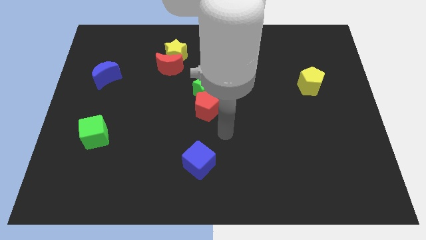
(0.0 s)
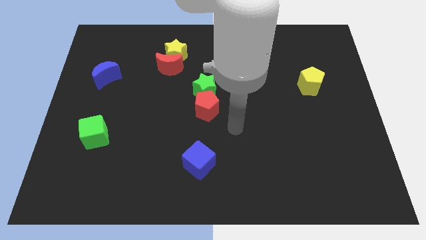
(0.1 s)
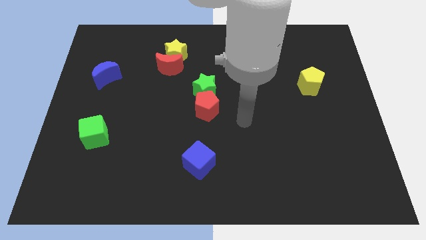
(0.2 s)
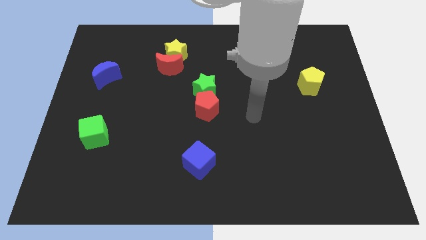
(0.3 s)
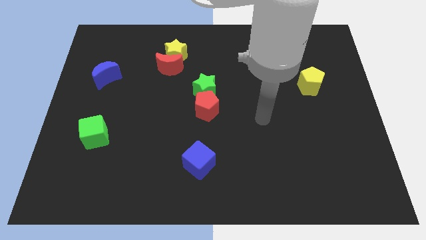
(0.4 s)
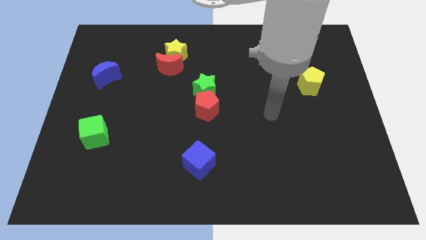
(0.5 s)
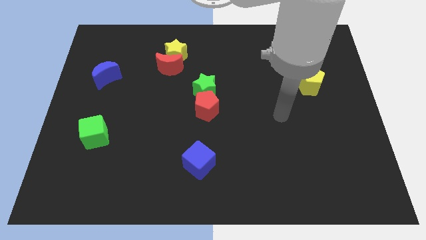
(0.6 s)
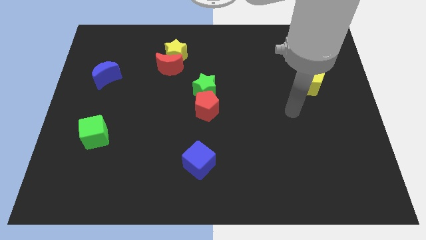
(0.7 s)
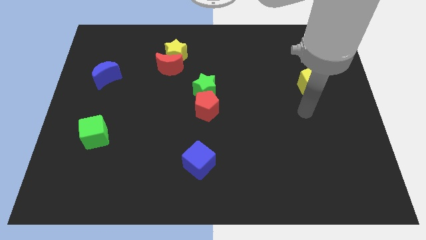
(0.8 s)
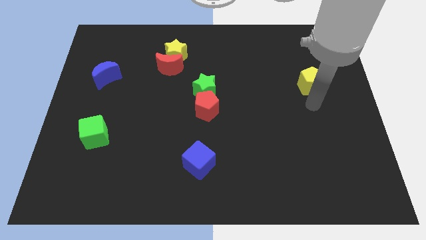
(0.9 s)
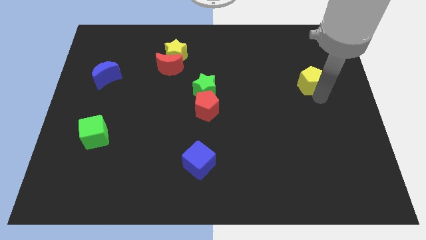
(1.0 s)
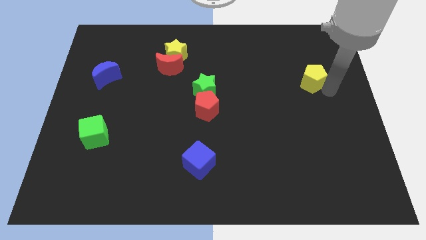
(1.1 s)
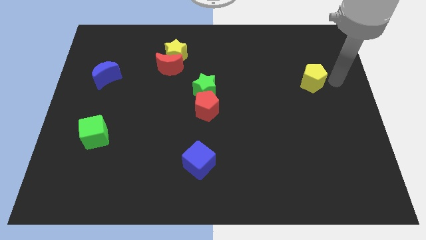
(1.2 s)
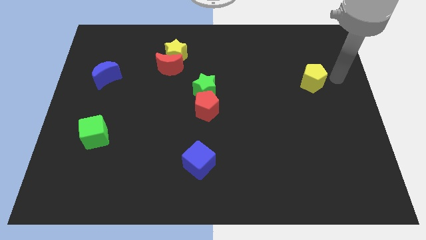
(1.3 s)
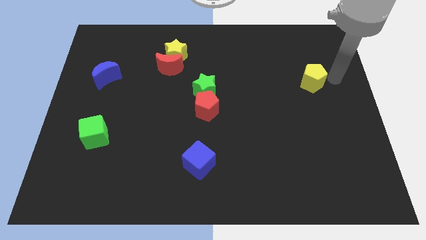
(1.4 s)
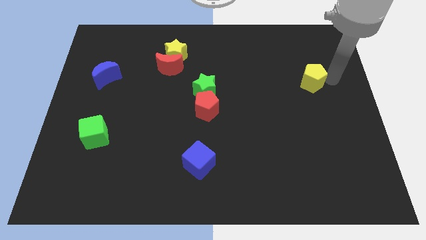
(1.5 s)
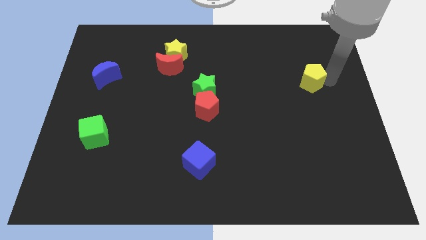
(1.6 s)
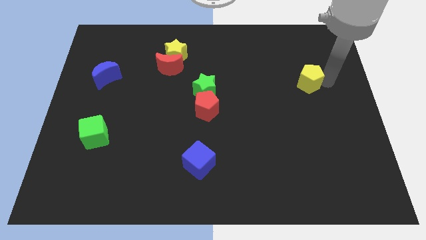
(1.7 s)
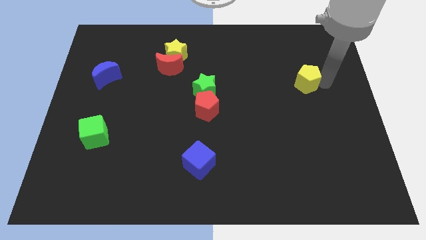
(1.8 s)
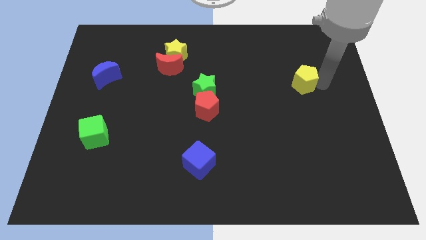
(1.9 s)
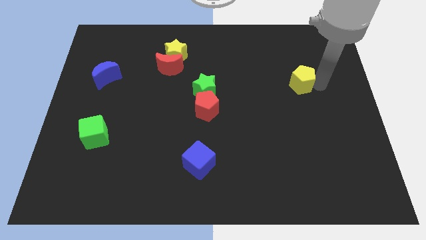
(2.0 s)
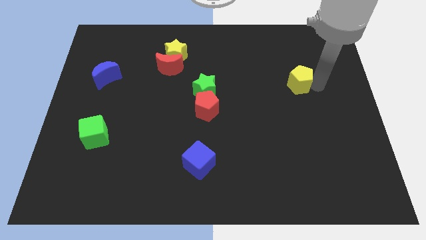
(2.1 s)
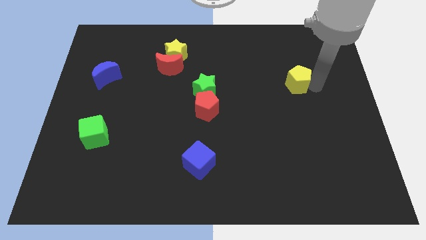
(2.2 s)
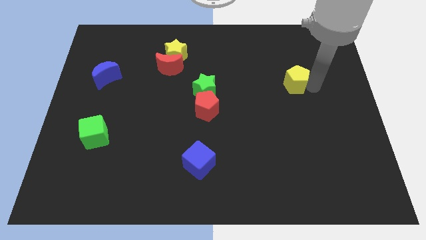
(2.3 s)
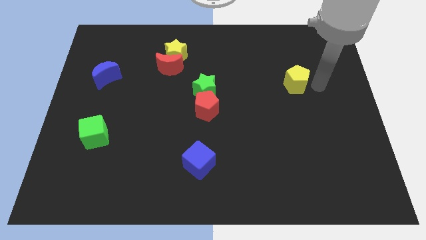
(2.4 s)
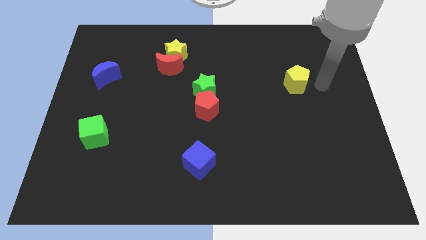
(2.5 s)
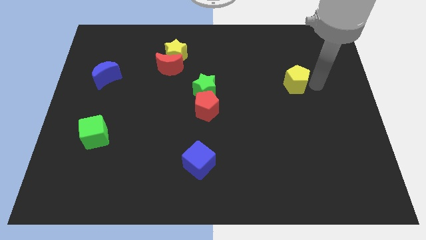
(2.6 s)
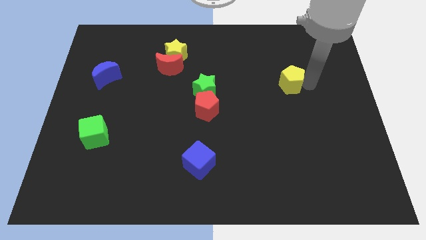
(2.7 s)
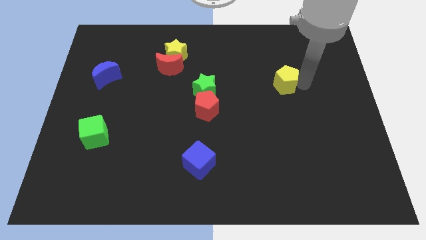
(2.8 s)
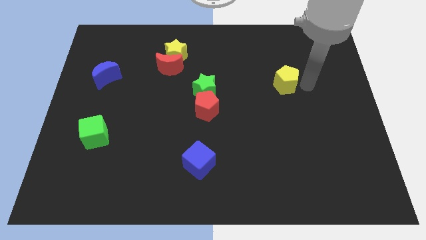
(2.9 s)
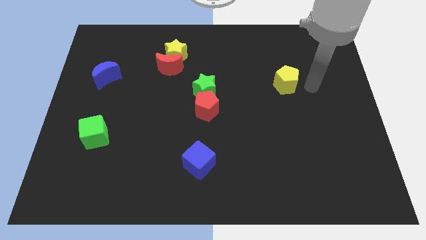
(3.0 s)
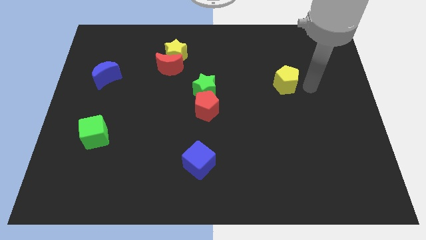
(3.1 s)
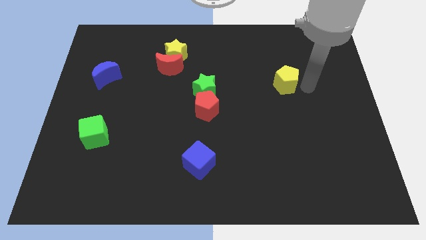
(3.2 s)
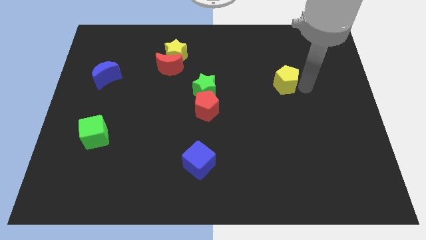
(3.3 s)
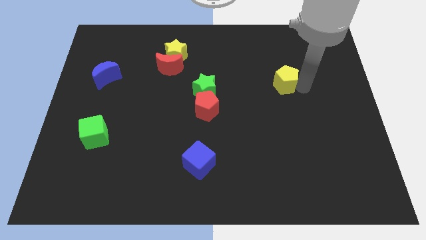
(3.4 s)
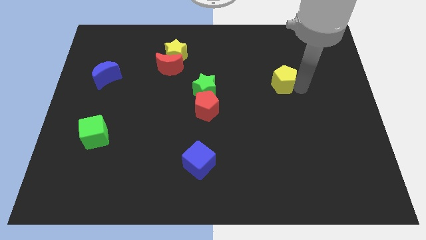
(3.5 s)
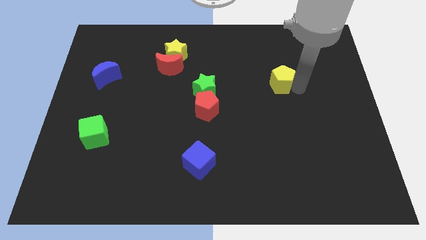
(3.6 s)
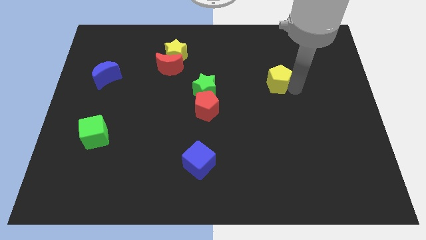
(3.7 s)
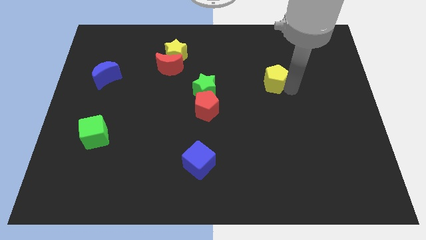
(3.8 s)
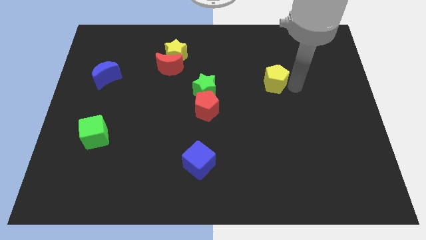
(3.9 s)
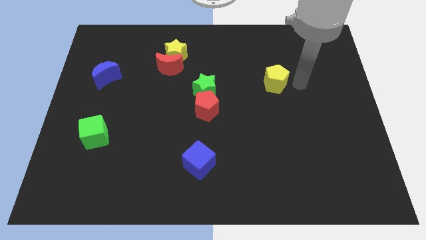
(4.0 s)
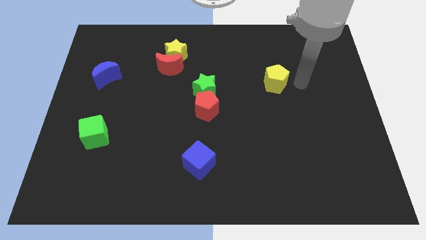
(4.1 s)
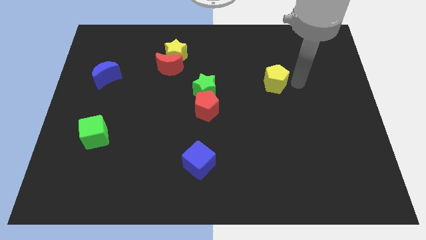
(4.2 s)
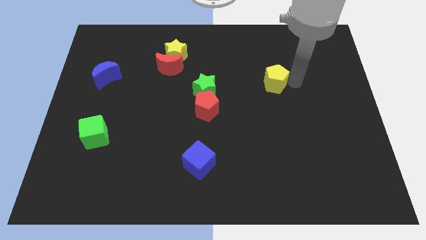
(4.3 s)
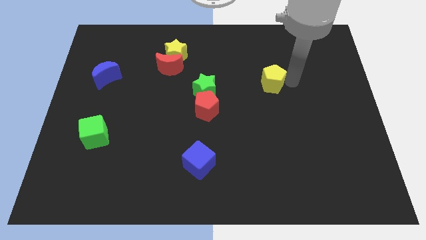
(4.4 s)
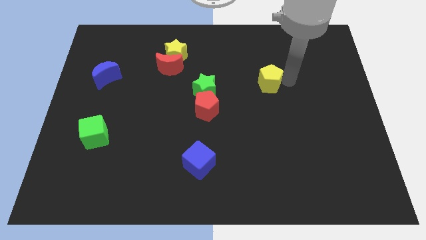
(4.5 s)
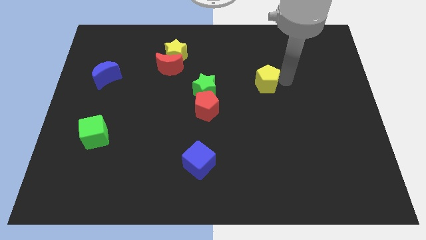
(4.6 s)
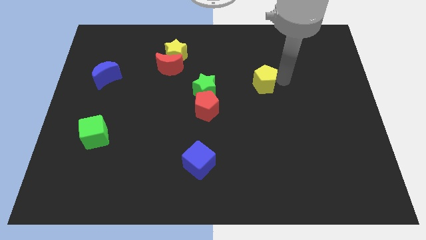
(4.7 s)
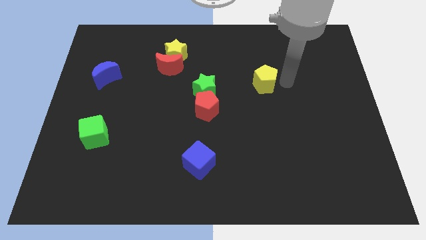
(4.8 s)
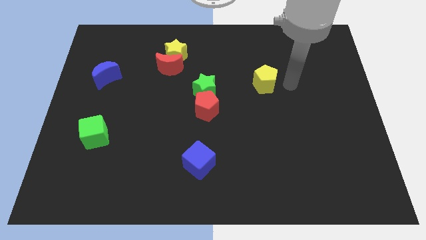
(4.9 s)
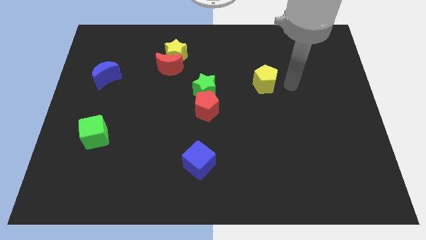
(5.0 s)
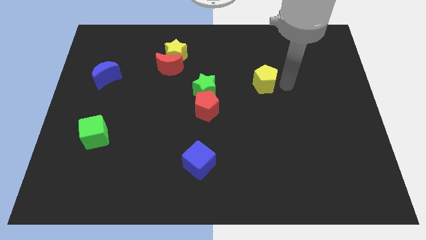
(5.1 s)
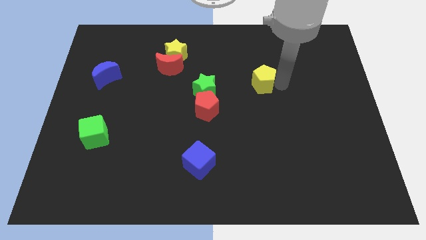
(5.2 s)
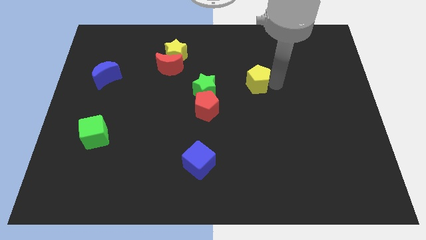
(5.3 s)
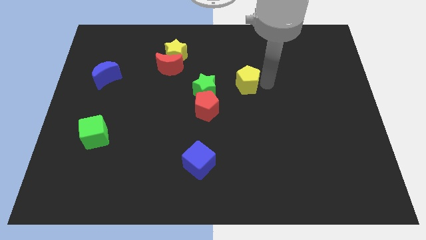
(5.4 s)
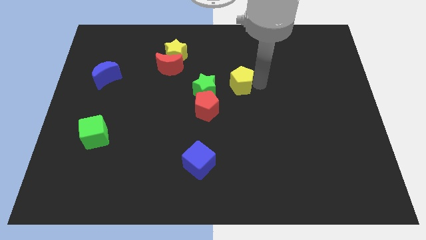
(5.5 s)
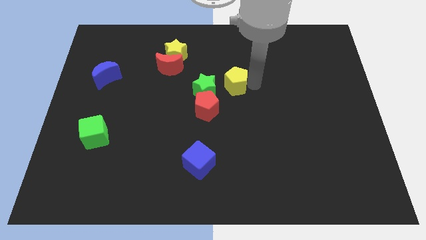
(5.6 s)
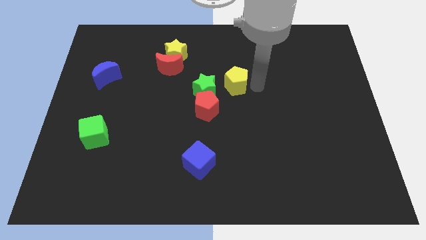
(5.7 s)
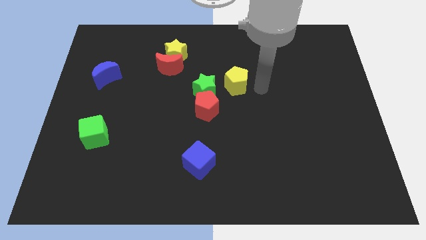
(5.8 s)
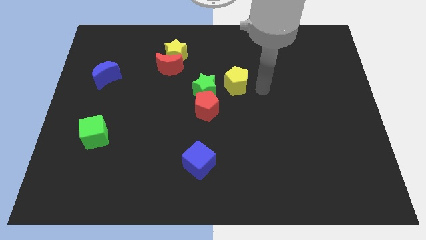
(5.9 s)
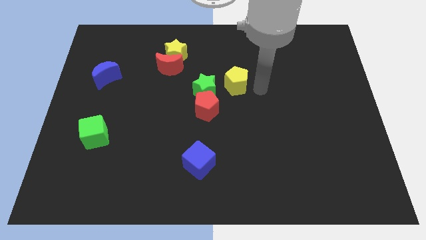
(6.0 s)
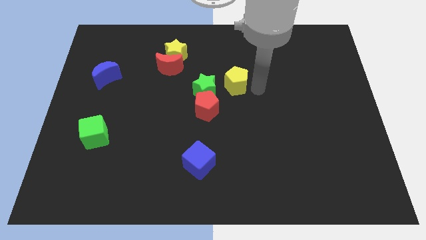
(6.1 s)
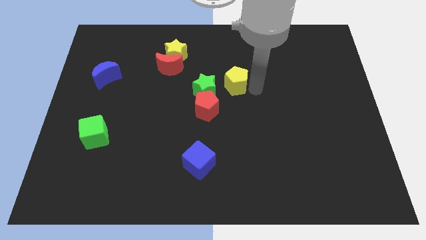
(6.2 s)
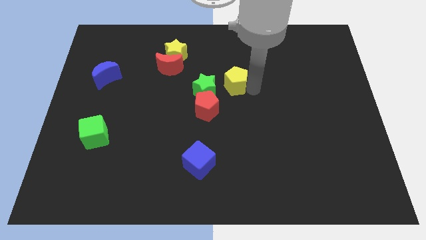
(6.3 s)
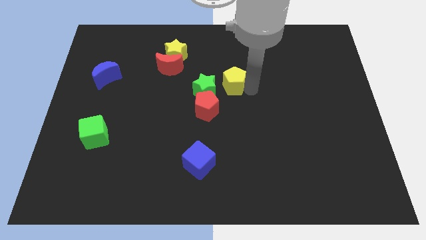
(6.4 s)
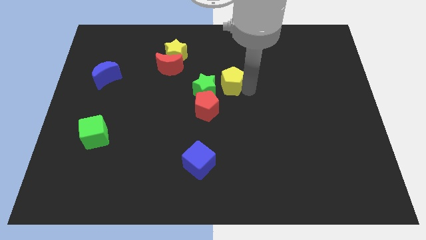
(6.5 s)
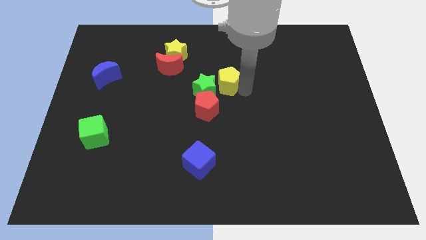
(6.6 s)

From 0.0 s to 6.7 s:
push the yellow pentagon to the left

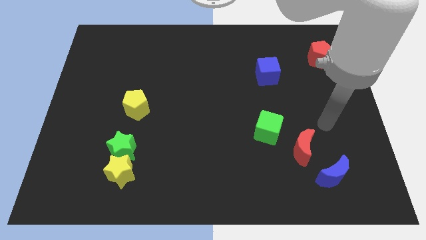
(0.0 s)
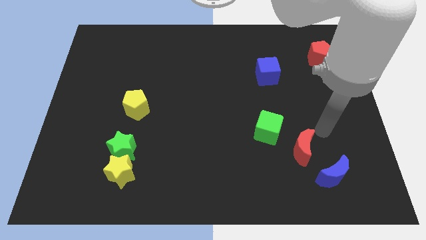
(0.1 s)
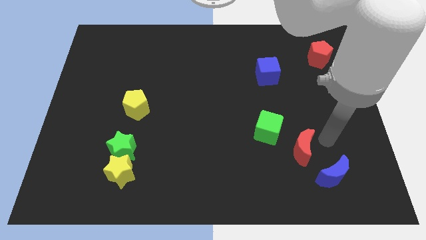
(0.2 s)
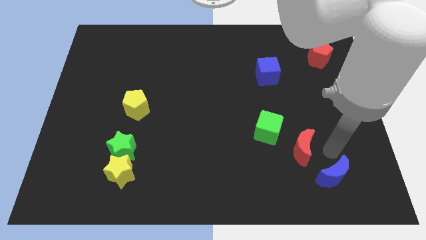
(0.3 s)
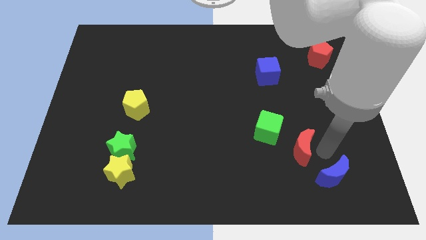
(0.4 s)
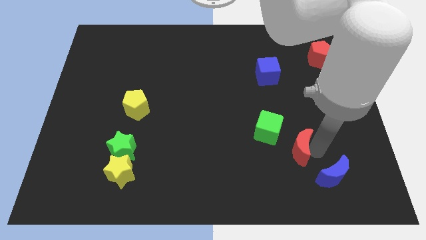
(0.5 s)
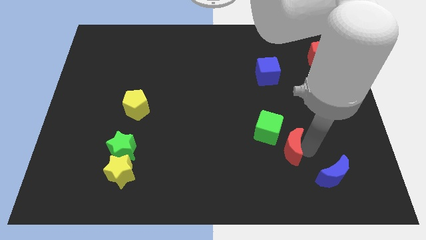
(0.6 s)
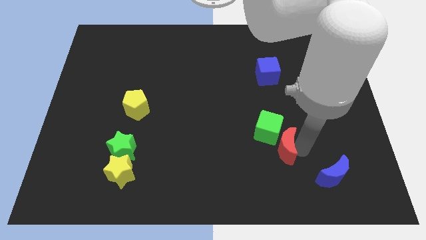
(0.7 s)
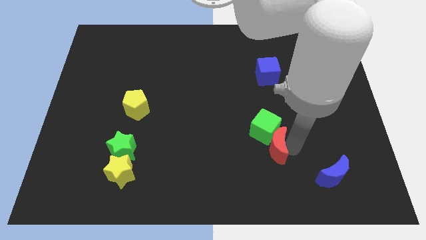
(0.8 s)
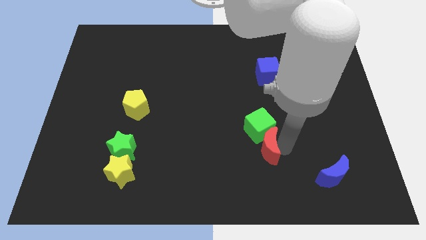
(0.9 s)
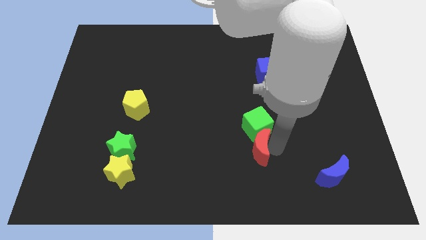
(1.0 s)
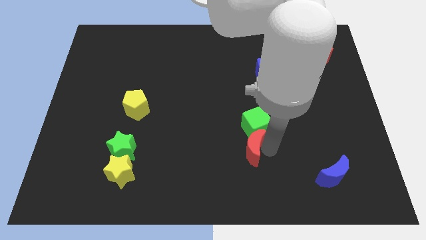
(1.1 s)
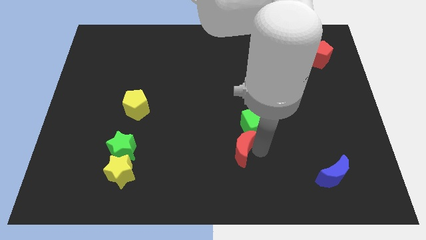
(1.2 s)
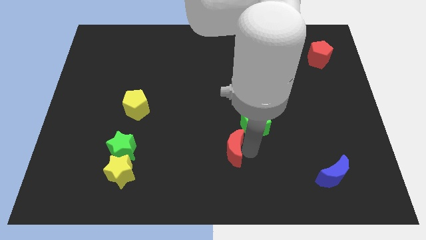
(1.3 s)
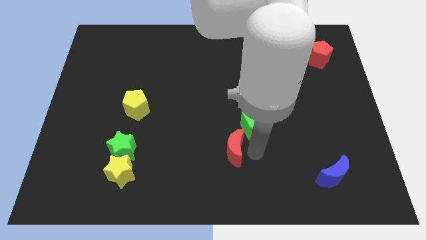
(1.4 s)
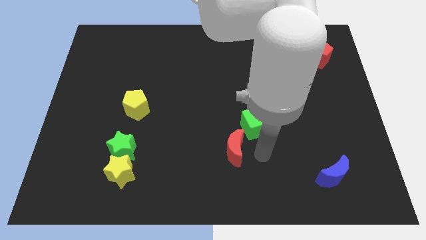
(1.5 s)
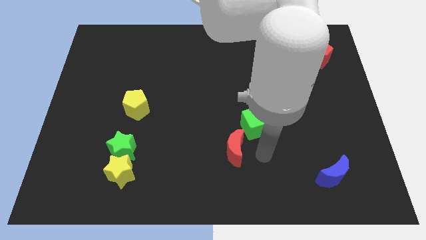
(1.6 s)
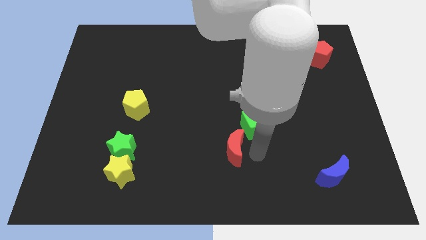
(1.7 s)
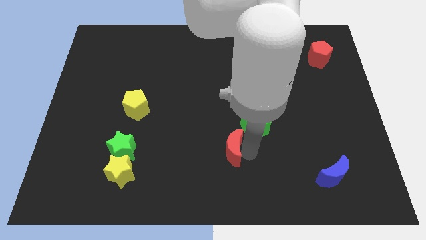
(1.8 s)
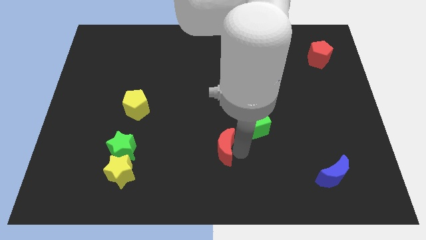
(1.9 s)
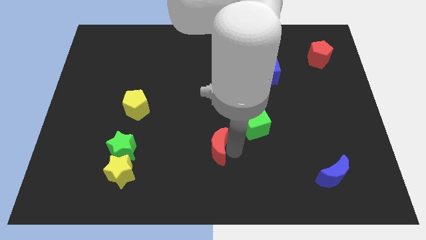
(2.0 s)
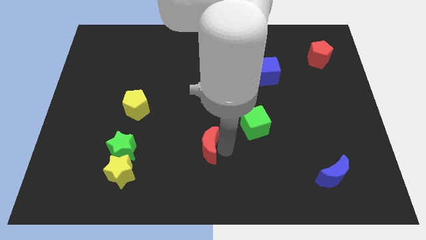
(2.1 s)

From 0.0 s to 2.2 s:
move the red moon to the left
